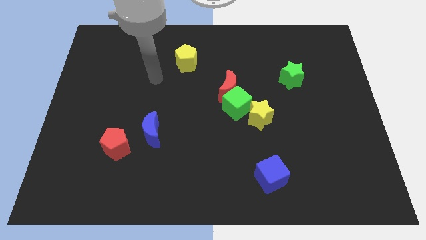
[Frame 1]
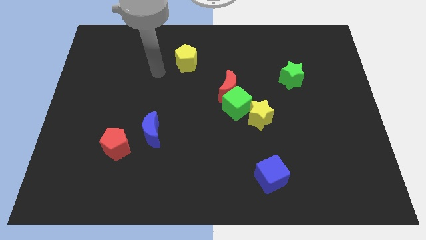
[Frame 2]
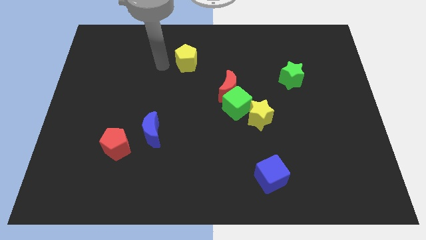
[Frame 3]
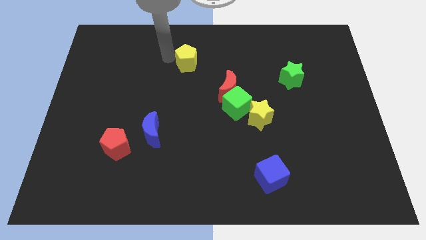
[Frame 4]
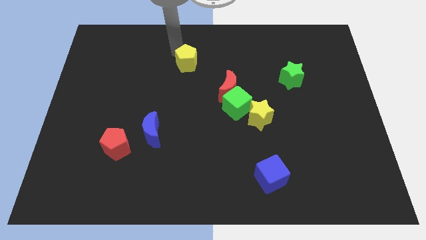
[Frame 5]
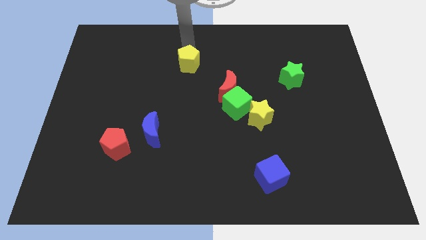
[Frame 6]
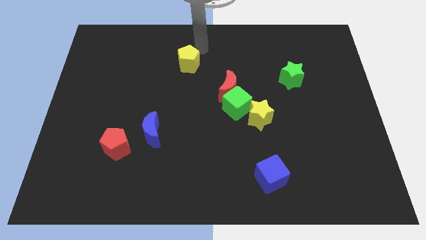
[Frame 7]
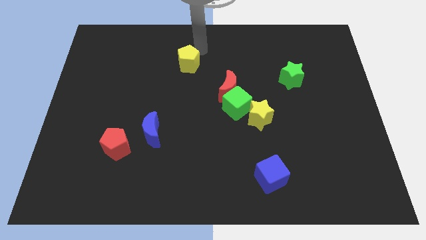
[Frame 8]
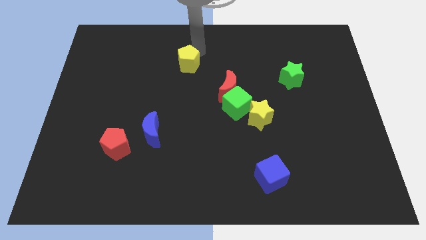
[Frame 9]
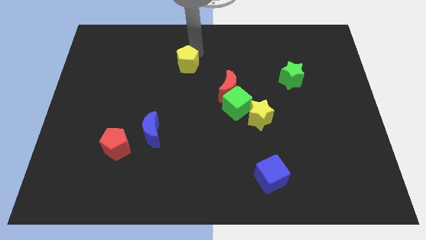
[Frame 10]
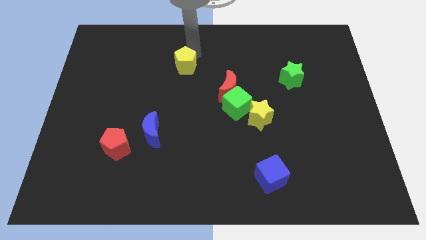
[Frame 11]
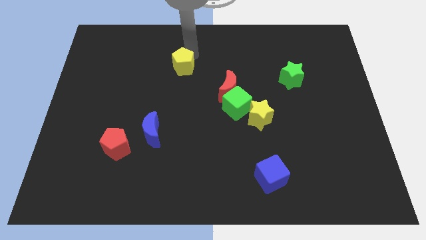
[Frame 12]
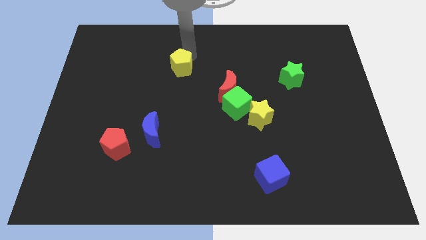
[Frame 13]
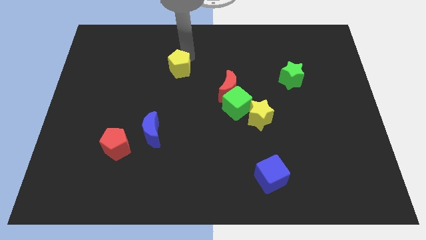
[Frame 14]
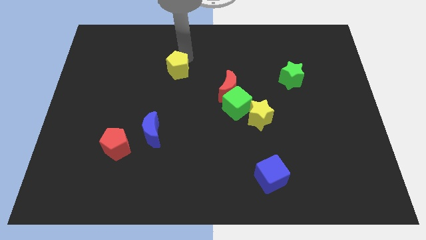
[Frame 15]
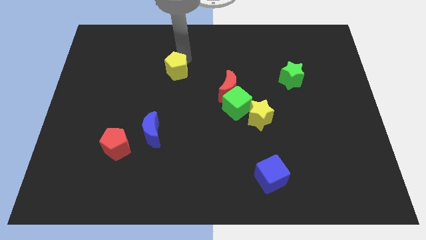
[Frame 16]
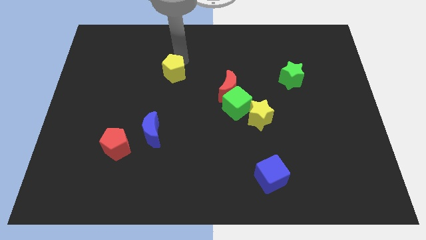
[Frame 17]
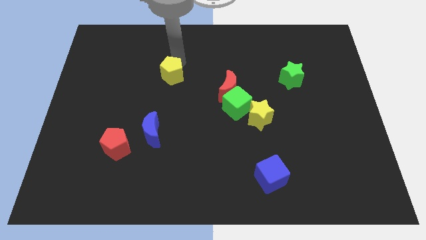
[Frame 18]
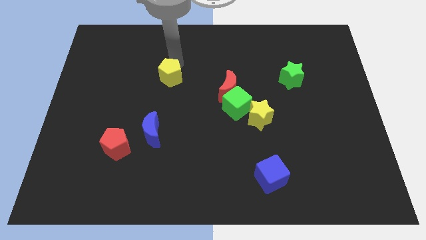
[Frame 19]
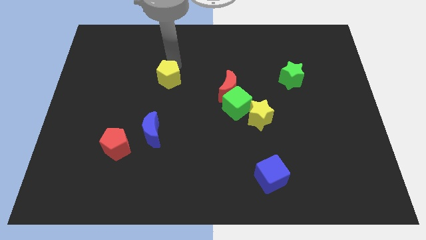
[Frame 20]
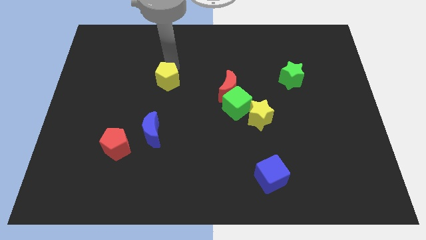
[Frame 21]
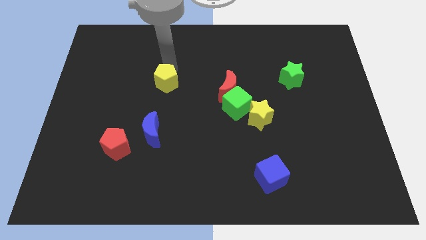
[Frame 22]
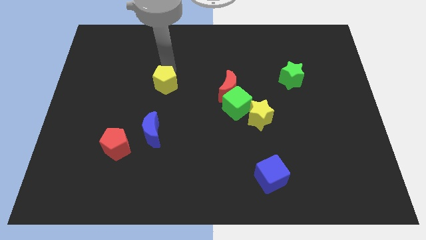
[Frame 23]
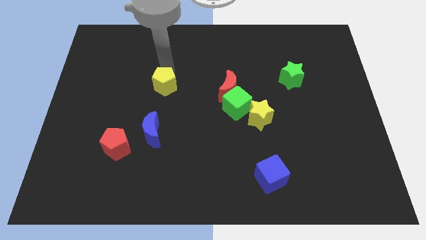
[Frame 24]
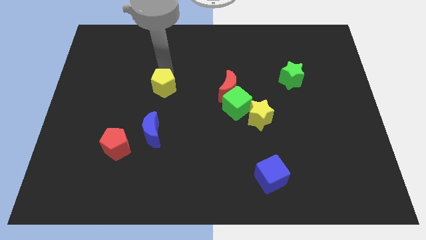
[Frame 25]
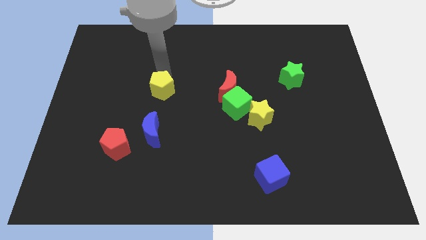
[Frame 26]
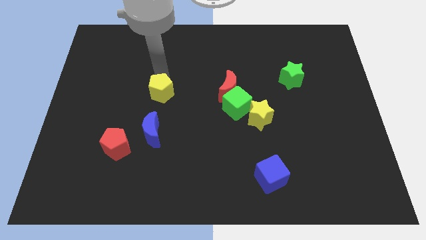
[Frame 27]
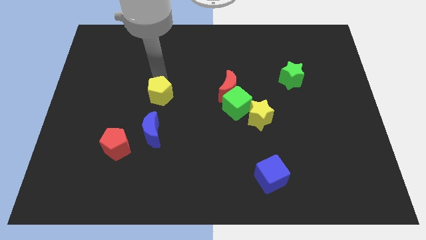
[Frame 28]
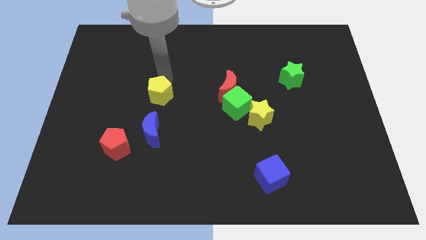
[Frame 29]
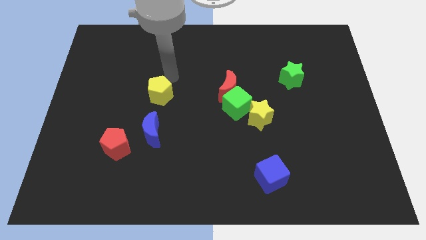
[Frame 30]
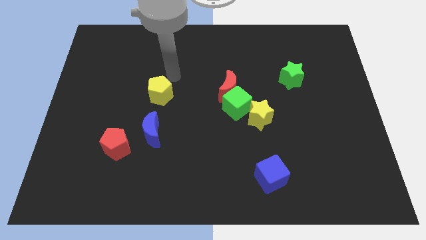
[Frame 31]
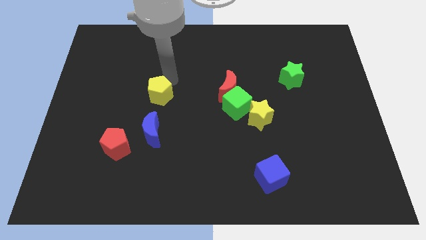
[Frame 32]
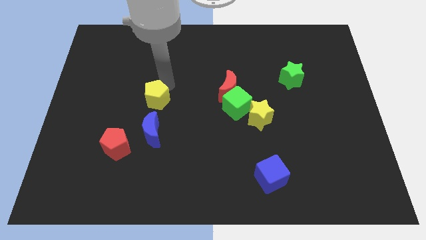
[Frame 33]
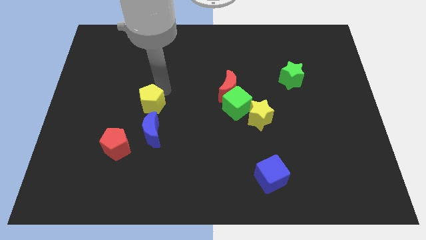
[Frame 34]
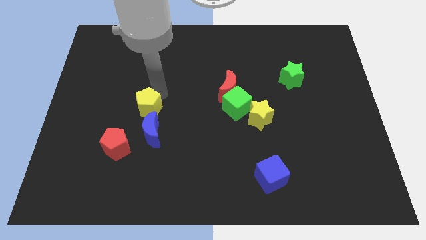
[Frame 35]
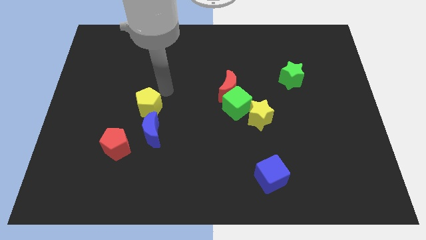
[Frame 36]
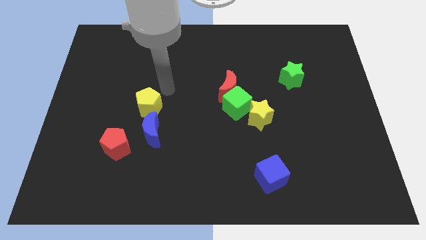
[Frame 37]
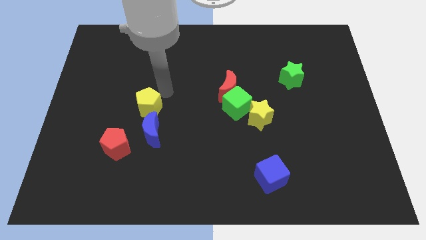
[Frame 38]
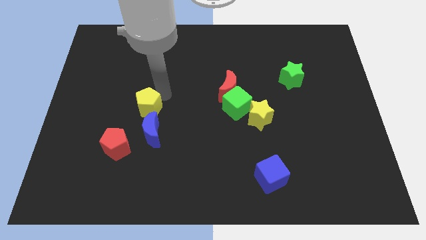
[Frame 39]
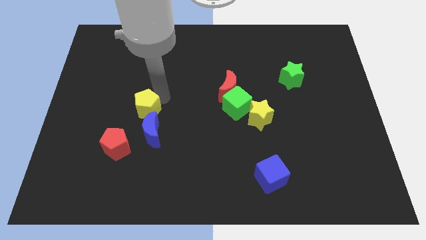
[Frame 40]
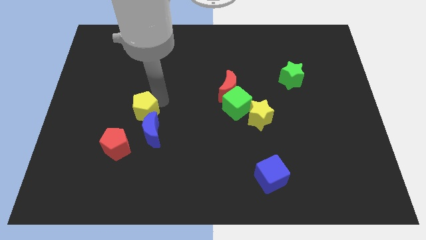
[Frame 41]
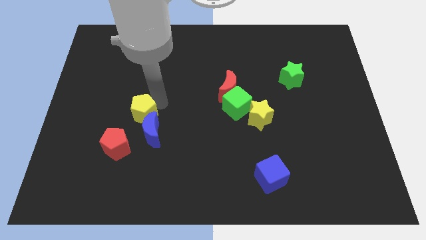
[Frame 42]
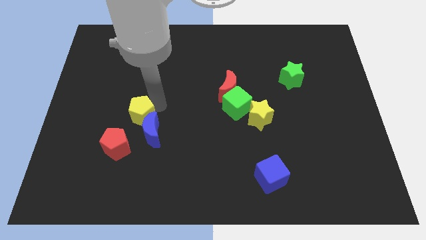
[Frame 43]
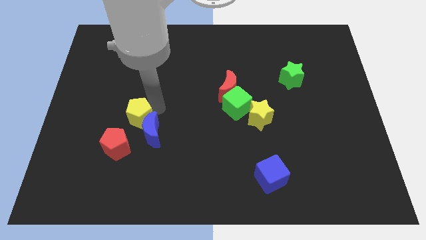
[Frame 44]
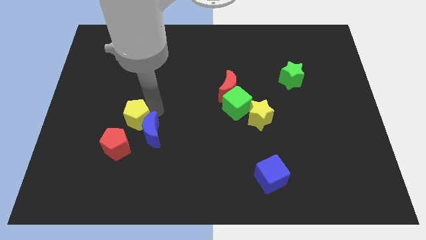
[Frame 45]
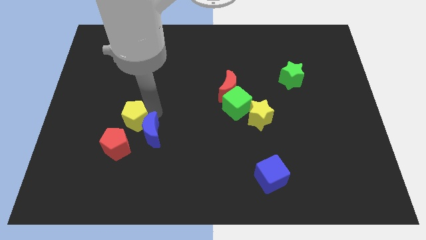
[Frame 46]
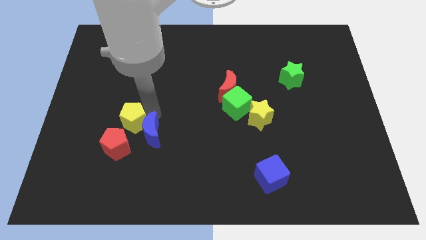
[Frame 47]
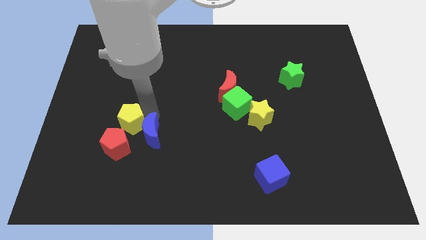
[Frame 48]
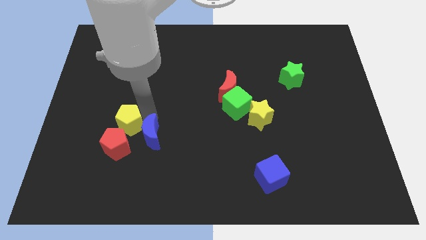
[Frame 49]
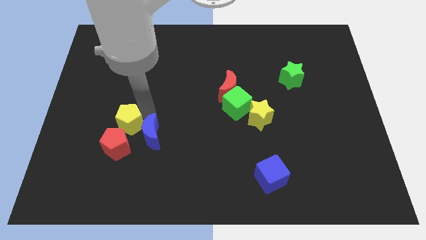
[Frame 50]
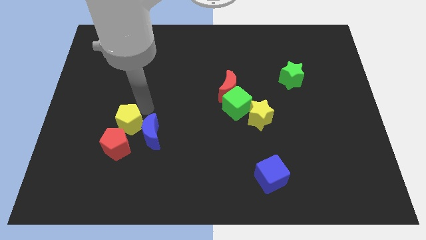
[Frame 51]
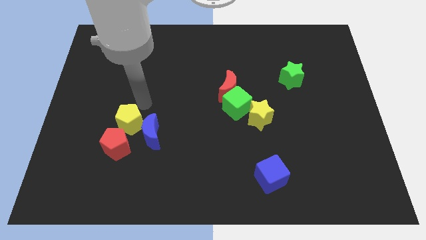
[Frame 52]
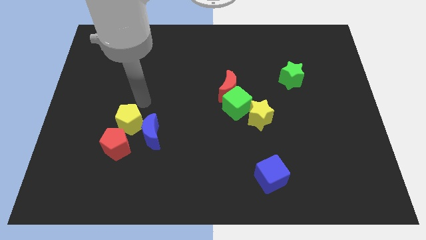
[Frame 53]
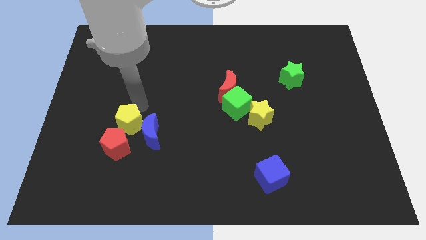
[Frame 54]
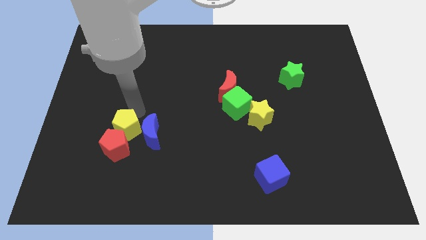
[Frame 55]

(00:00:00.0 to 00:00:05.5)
move the yellow pentagon close to the red pentagon

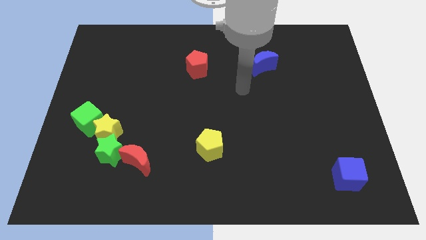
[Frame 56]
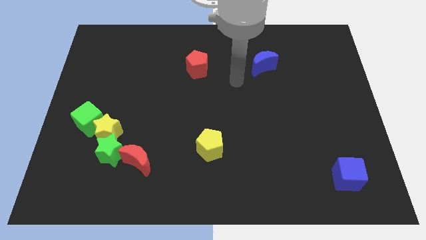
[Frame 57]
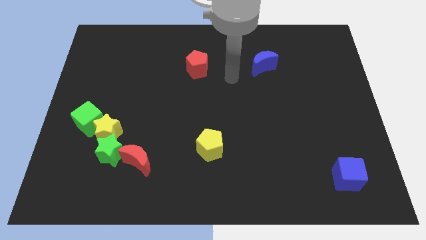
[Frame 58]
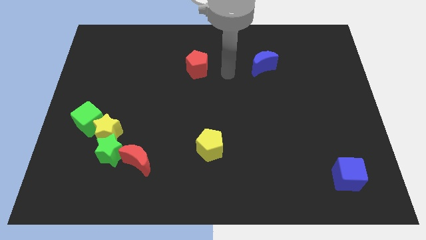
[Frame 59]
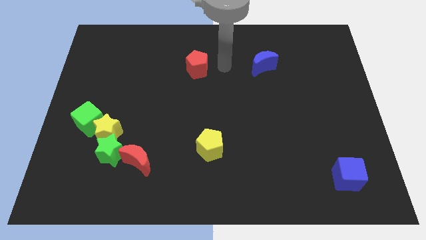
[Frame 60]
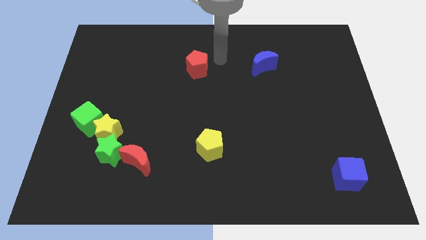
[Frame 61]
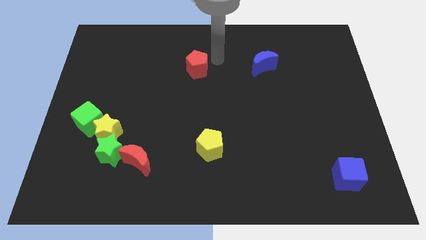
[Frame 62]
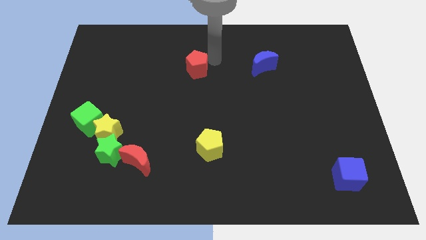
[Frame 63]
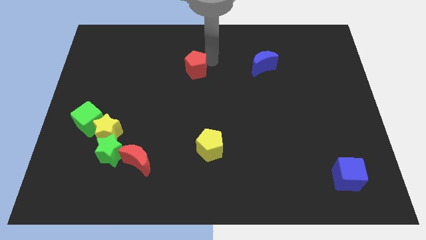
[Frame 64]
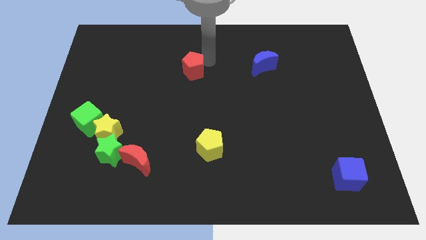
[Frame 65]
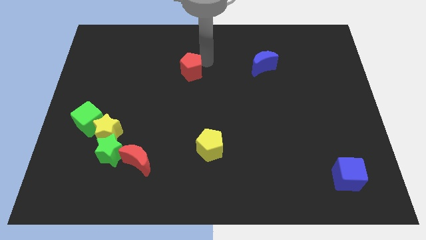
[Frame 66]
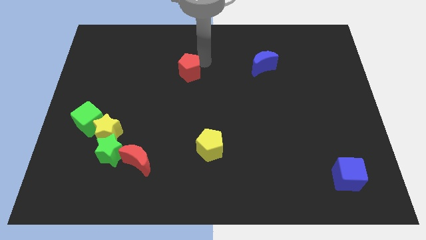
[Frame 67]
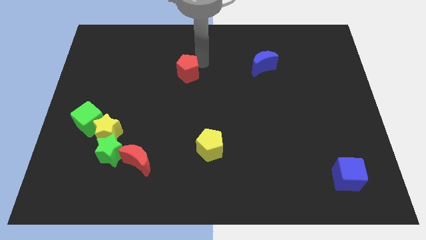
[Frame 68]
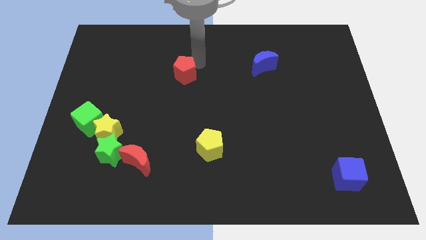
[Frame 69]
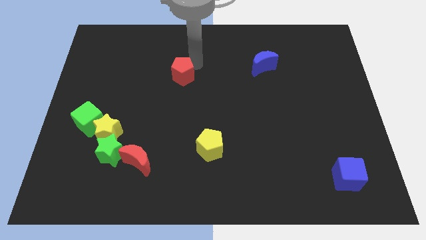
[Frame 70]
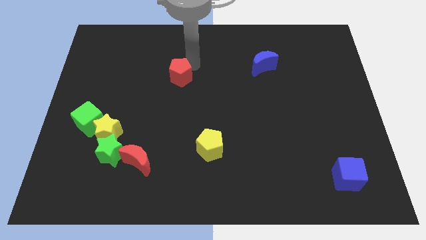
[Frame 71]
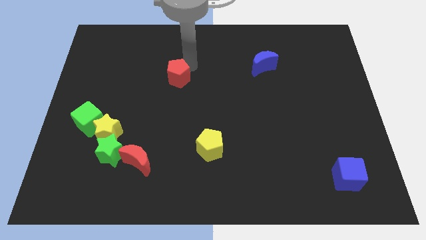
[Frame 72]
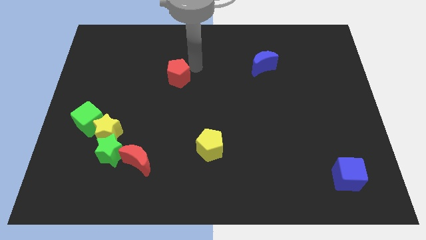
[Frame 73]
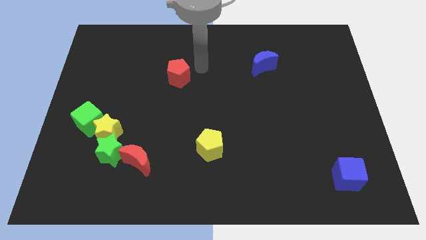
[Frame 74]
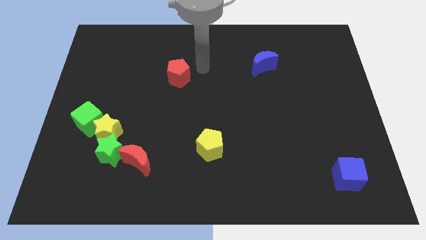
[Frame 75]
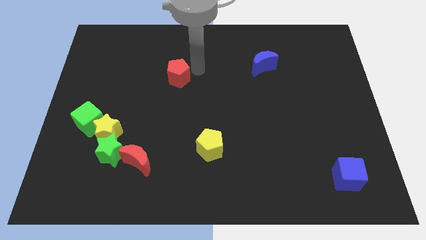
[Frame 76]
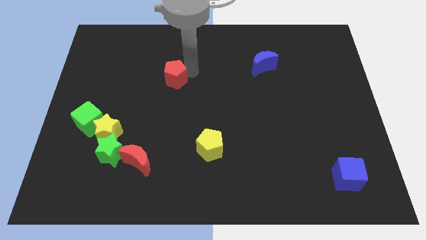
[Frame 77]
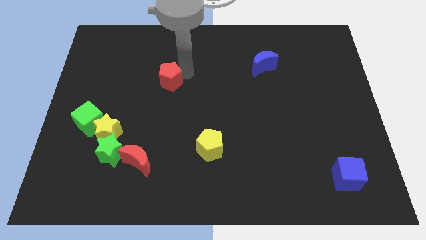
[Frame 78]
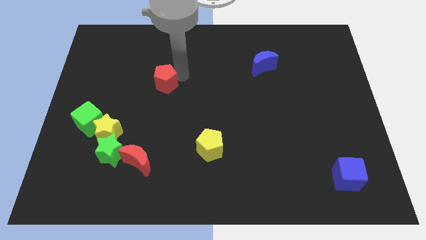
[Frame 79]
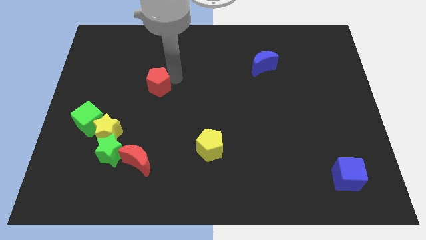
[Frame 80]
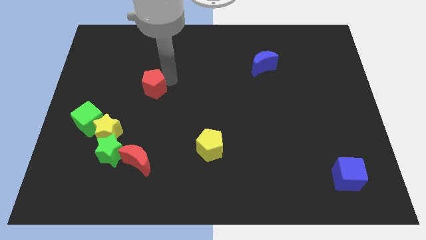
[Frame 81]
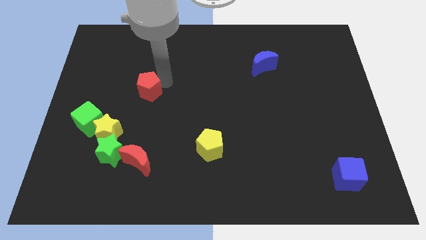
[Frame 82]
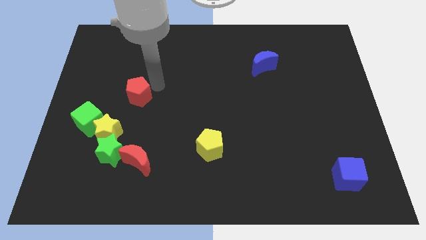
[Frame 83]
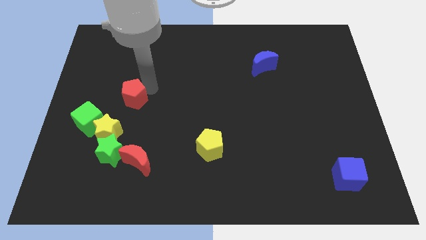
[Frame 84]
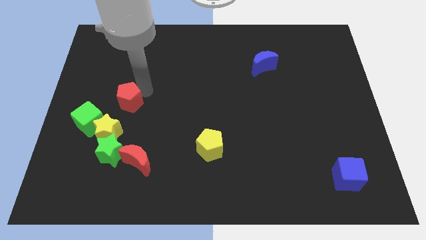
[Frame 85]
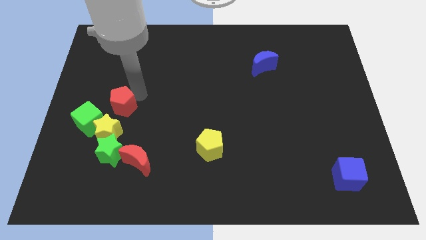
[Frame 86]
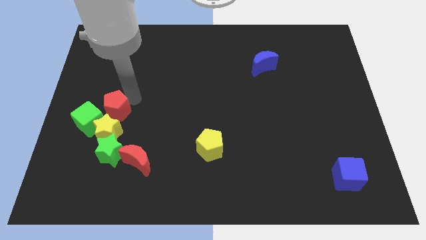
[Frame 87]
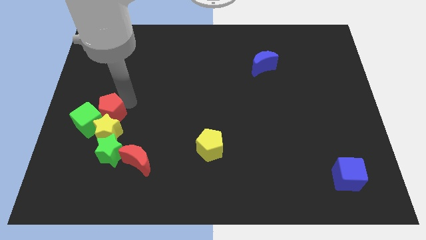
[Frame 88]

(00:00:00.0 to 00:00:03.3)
slide the red pentagon towards the green cube
